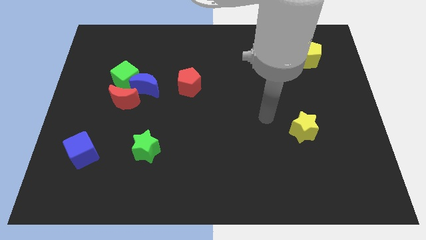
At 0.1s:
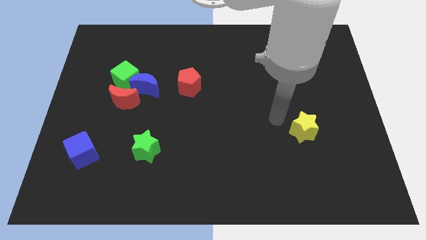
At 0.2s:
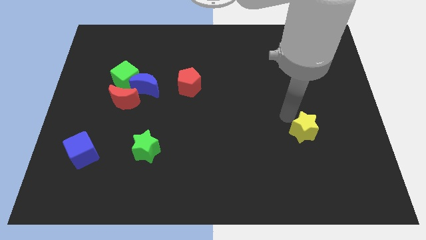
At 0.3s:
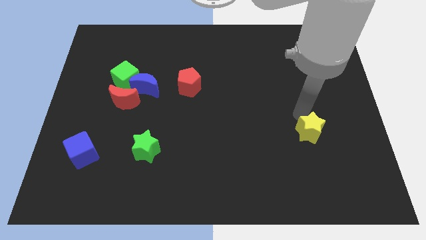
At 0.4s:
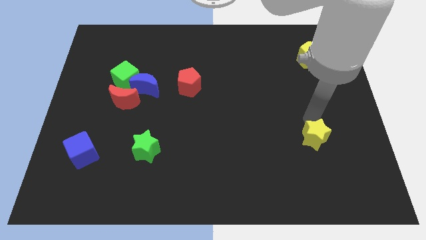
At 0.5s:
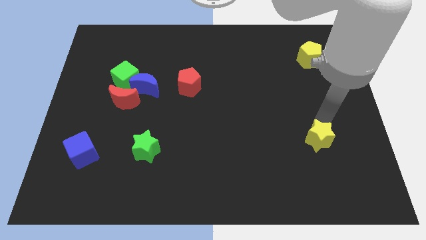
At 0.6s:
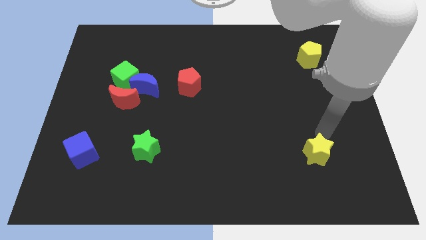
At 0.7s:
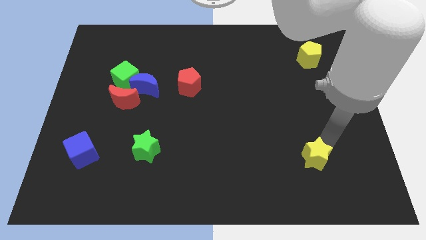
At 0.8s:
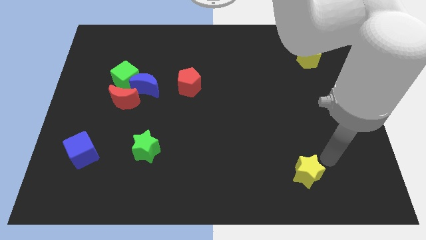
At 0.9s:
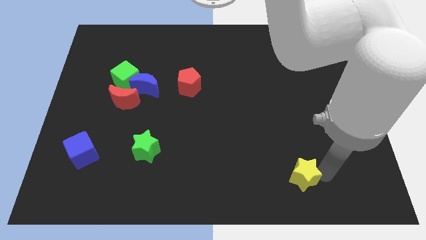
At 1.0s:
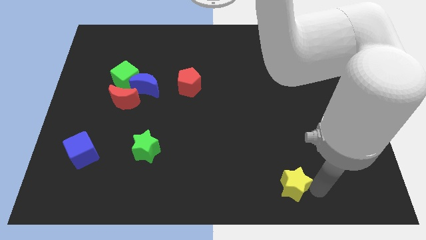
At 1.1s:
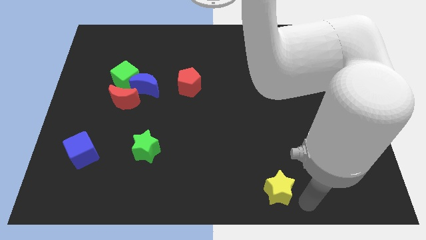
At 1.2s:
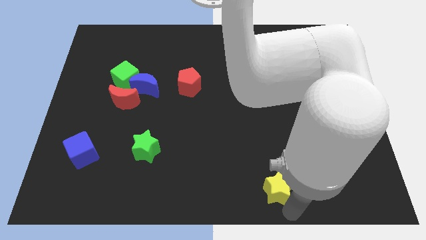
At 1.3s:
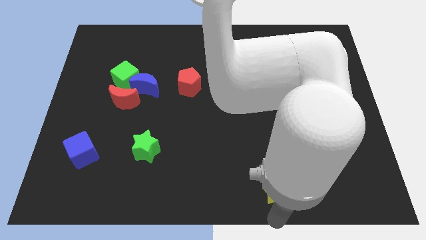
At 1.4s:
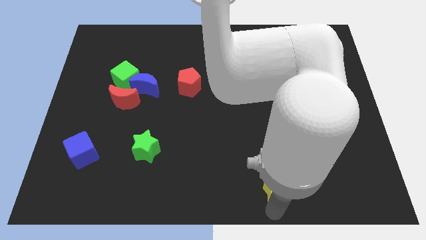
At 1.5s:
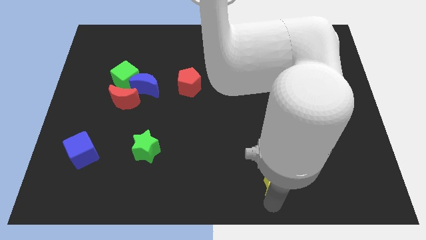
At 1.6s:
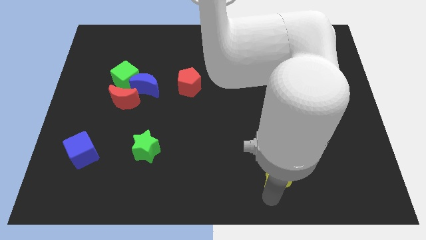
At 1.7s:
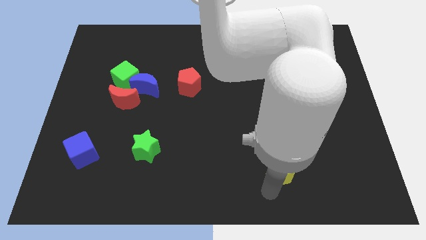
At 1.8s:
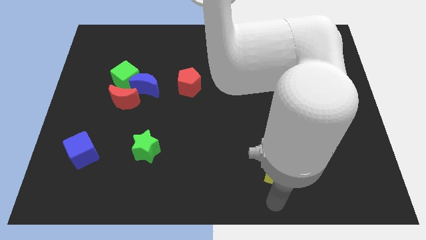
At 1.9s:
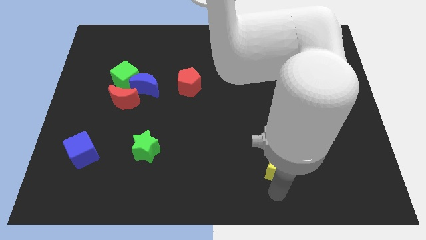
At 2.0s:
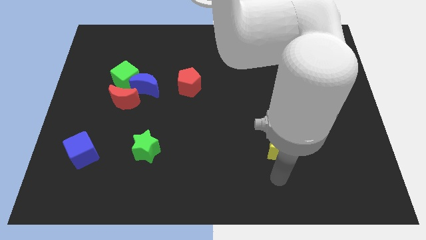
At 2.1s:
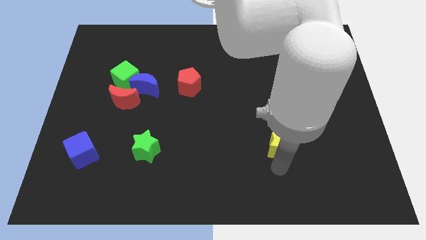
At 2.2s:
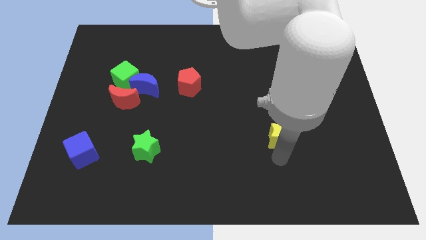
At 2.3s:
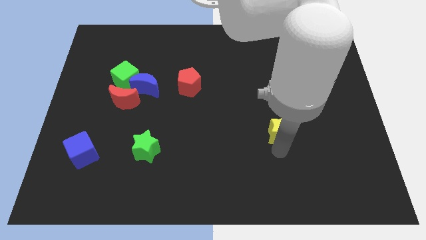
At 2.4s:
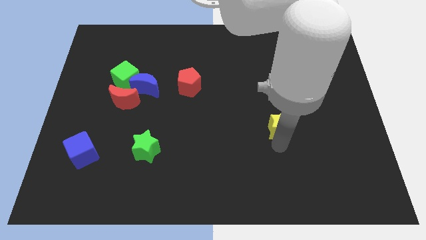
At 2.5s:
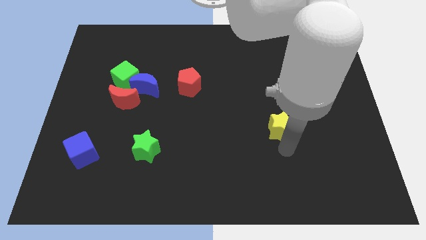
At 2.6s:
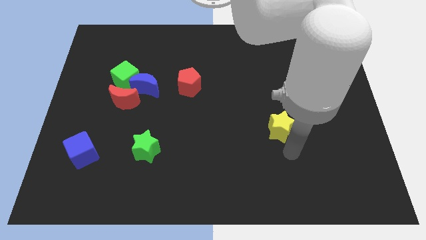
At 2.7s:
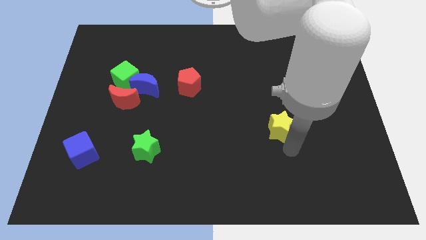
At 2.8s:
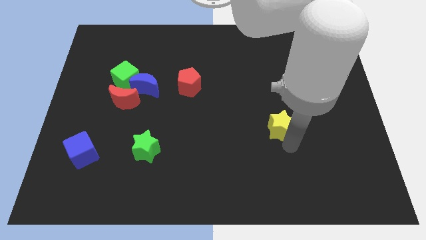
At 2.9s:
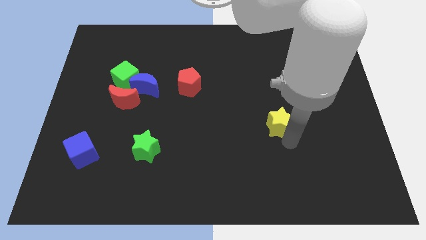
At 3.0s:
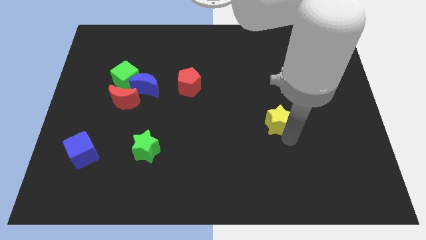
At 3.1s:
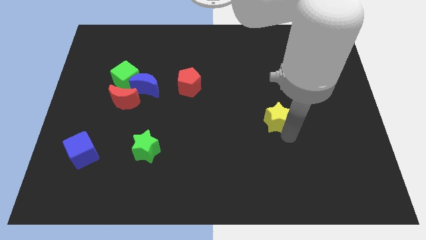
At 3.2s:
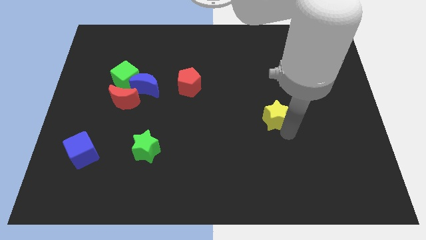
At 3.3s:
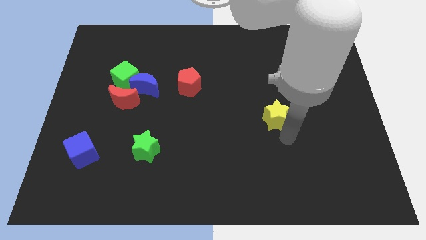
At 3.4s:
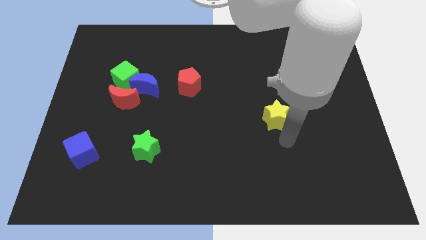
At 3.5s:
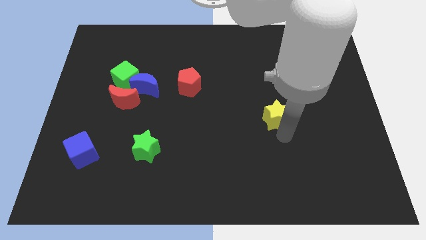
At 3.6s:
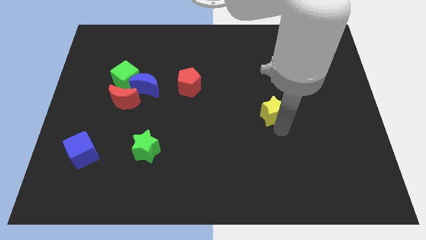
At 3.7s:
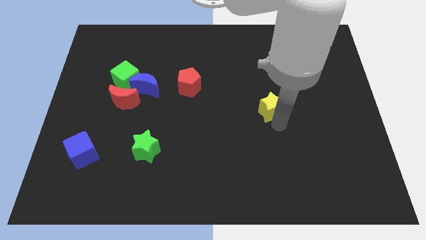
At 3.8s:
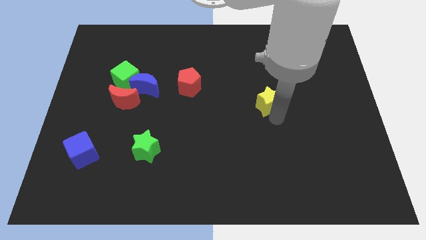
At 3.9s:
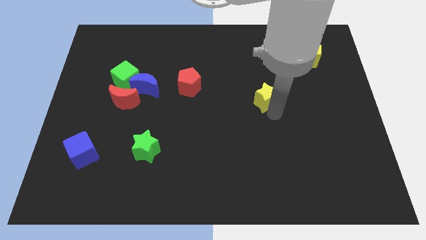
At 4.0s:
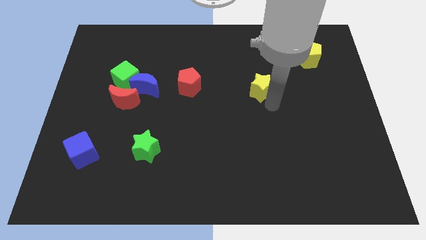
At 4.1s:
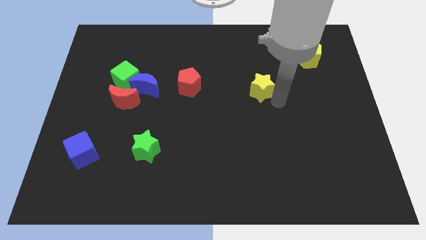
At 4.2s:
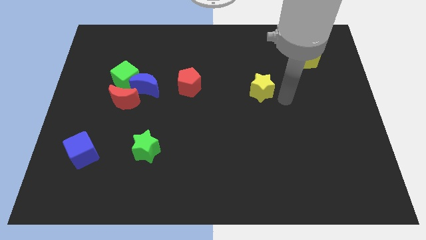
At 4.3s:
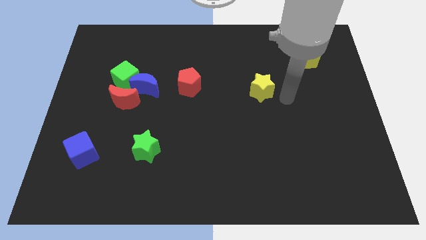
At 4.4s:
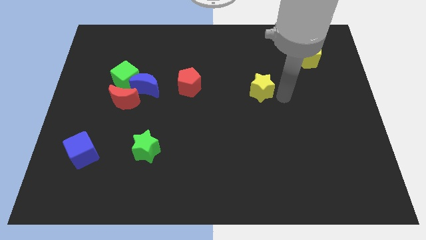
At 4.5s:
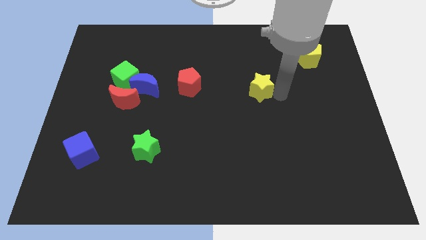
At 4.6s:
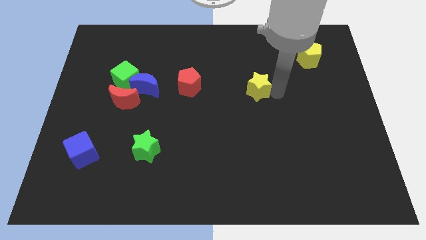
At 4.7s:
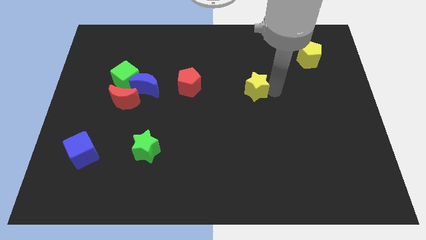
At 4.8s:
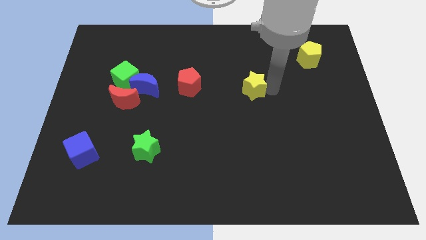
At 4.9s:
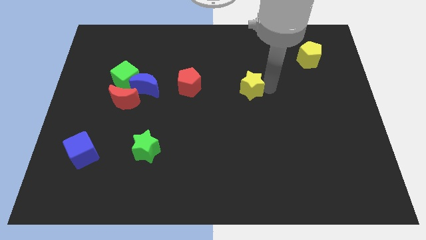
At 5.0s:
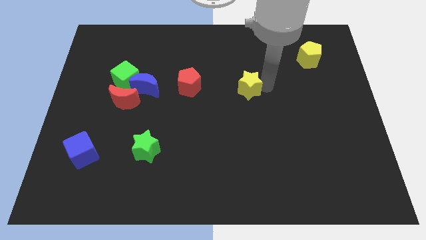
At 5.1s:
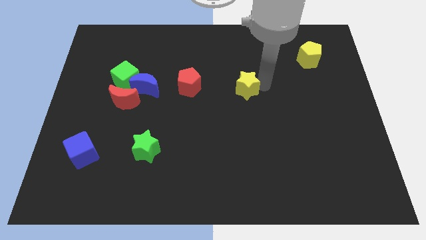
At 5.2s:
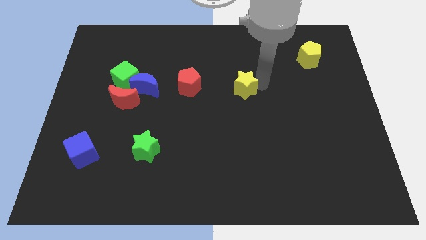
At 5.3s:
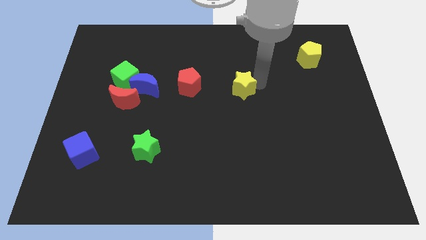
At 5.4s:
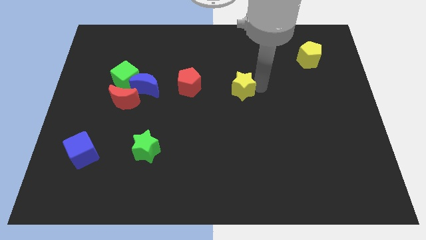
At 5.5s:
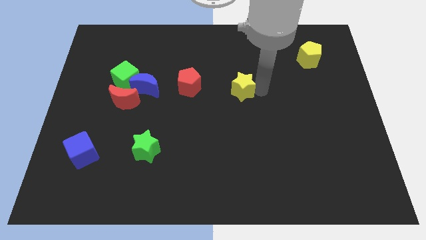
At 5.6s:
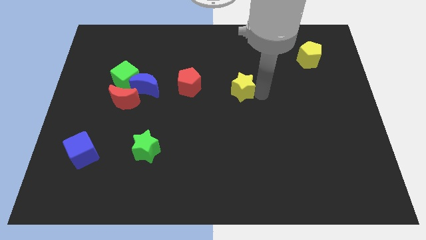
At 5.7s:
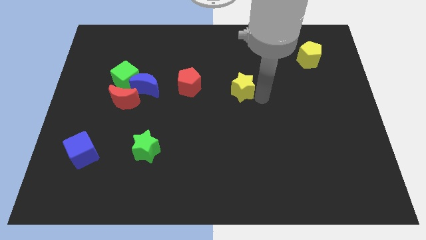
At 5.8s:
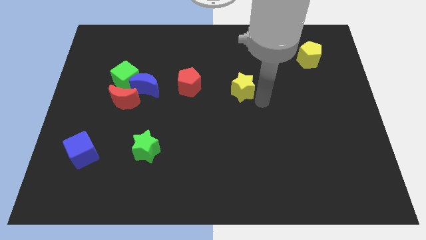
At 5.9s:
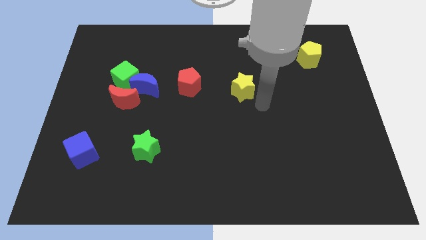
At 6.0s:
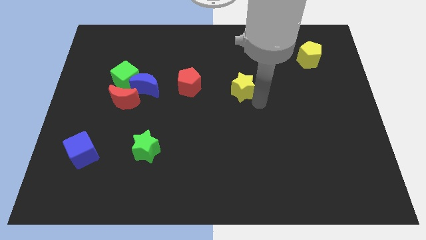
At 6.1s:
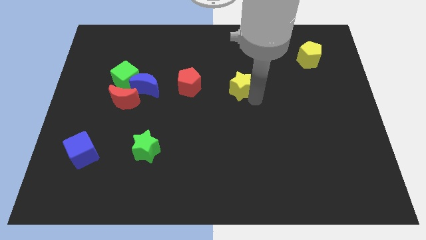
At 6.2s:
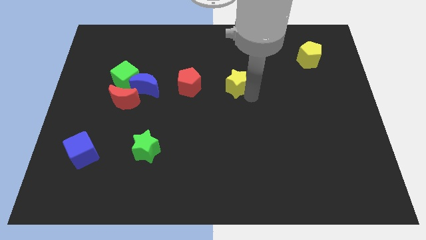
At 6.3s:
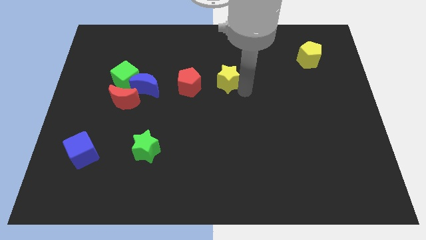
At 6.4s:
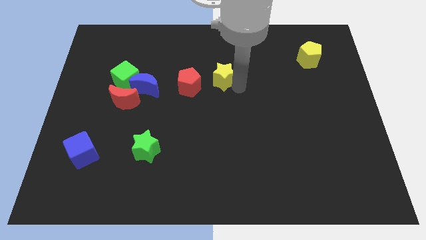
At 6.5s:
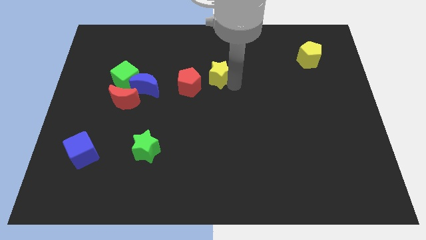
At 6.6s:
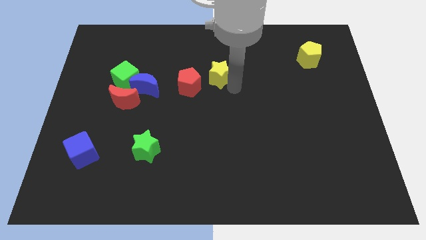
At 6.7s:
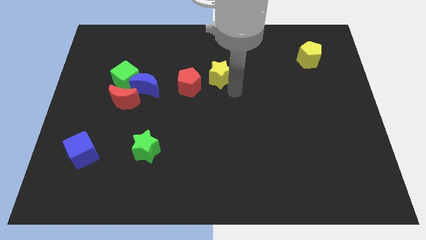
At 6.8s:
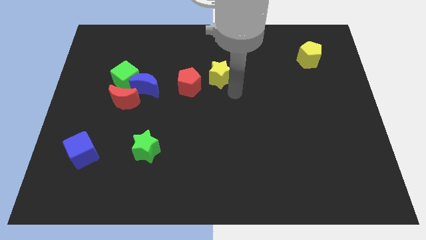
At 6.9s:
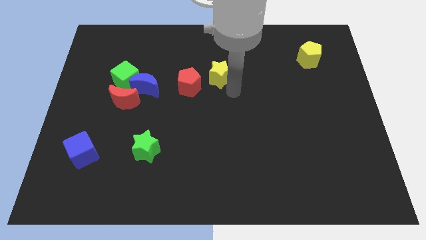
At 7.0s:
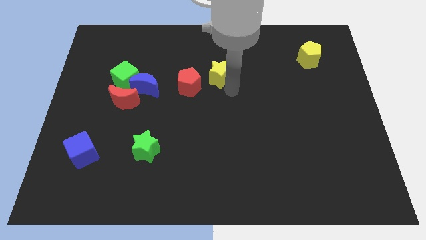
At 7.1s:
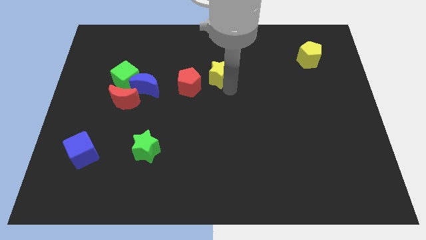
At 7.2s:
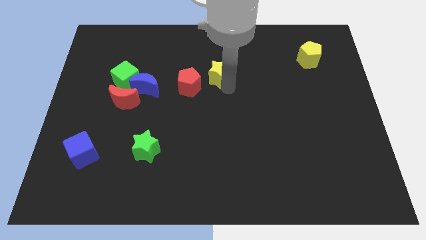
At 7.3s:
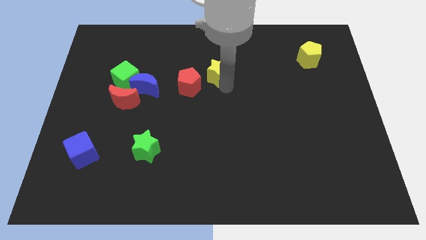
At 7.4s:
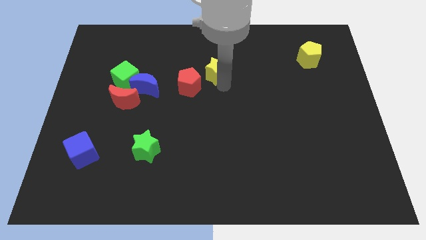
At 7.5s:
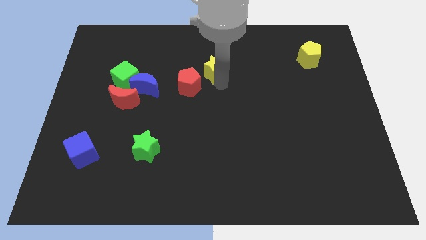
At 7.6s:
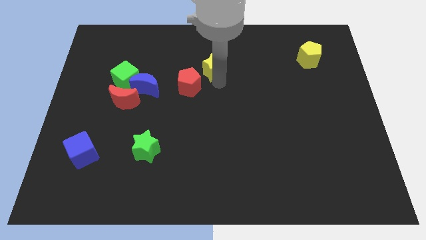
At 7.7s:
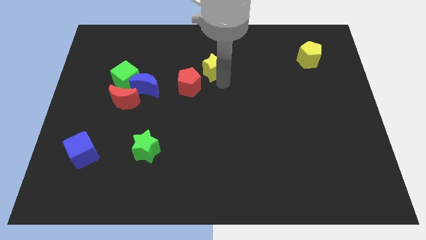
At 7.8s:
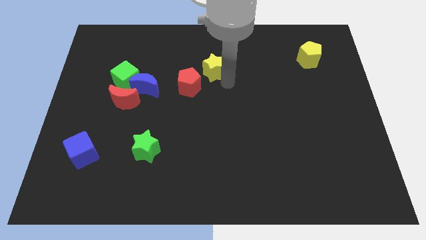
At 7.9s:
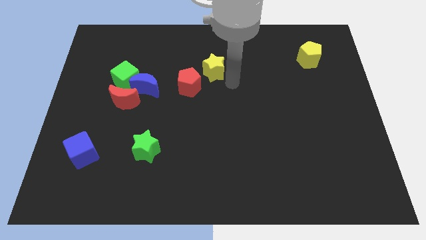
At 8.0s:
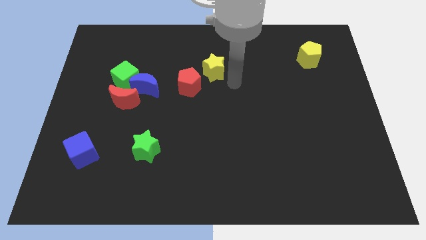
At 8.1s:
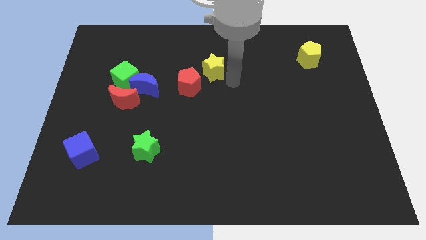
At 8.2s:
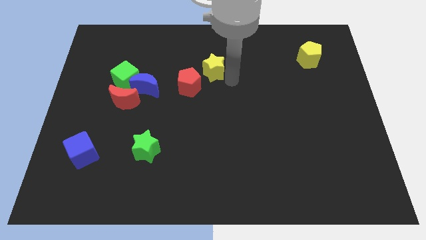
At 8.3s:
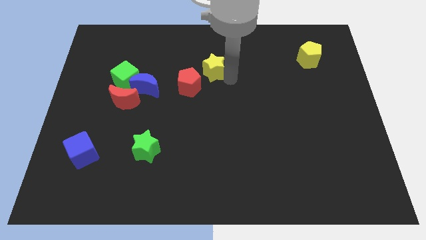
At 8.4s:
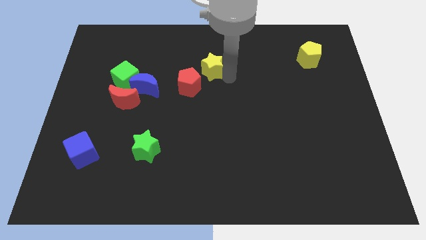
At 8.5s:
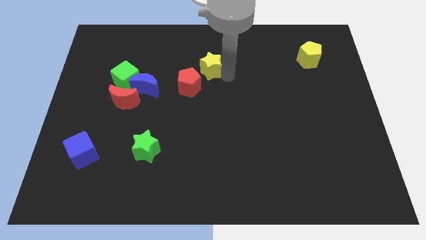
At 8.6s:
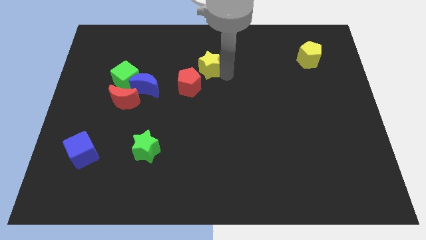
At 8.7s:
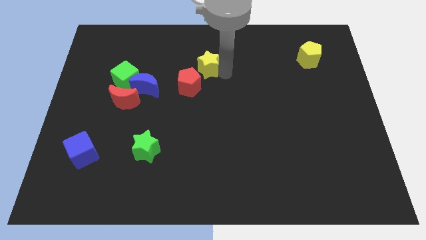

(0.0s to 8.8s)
push the yellow star to the top of the red pentagon
